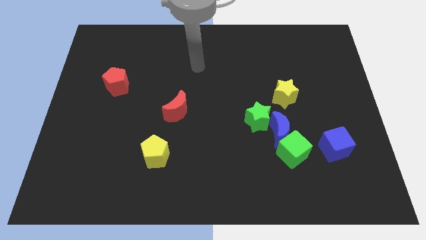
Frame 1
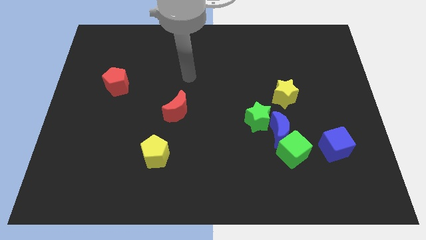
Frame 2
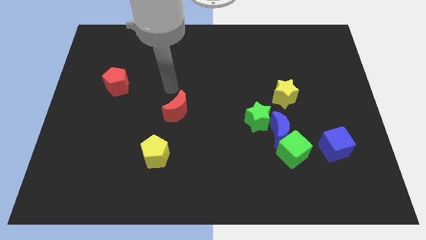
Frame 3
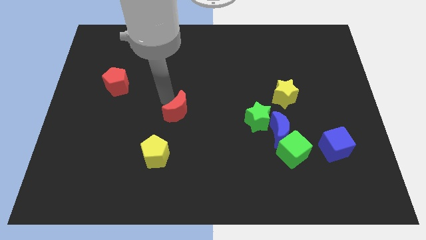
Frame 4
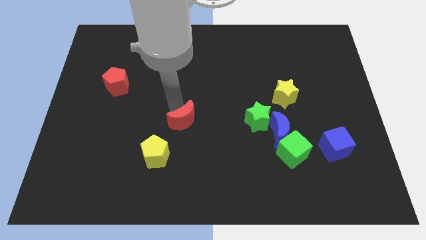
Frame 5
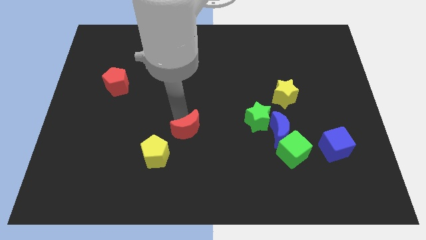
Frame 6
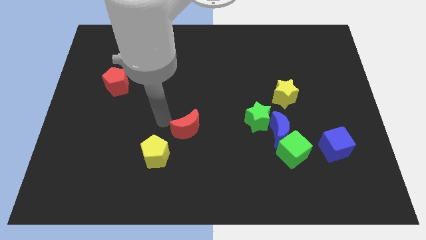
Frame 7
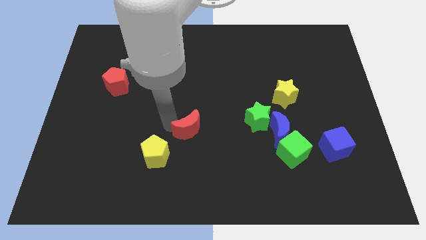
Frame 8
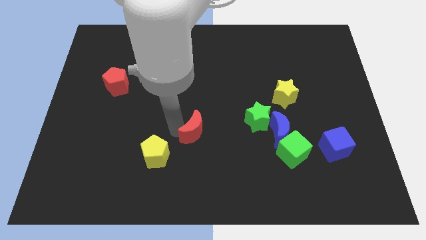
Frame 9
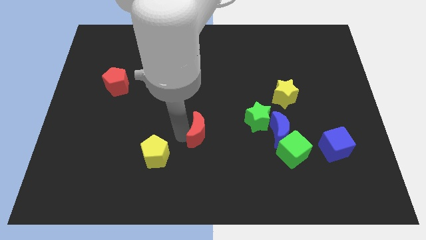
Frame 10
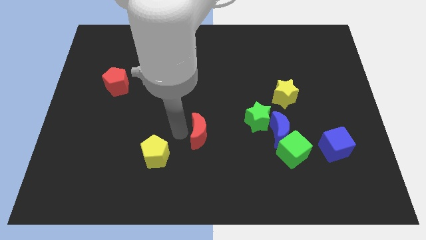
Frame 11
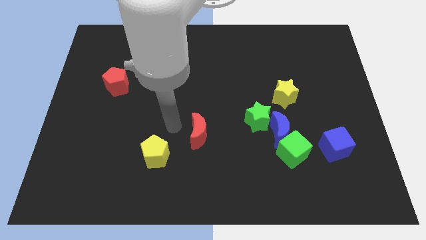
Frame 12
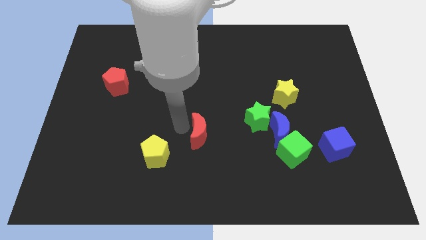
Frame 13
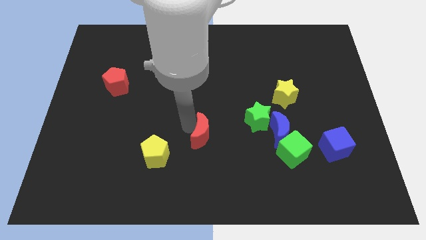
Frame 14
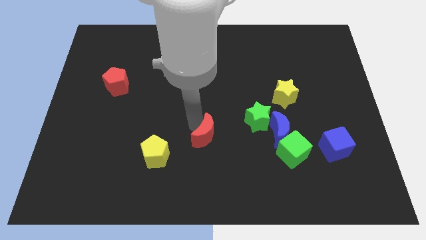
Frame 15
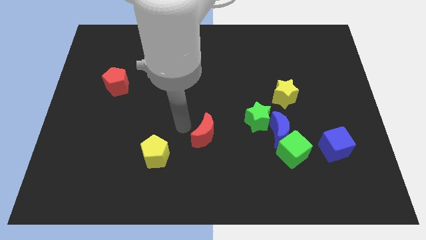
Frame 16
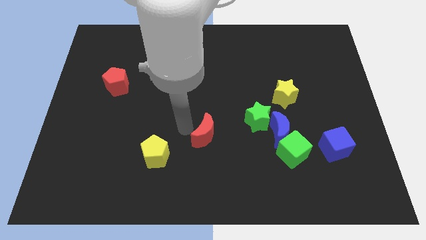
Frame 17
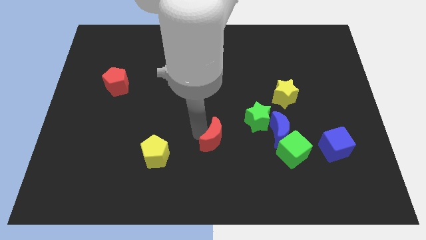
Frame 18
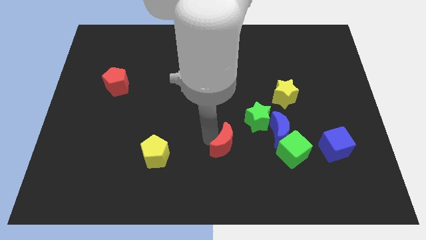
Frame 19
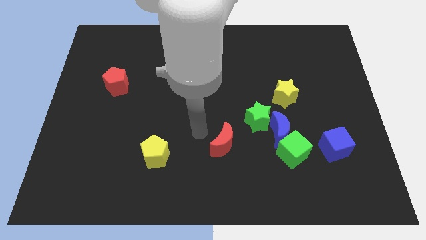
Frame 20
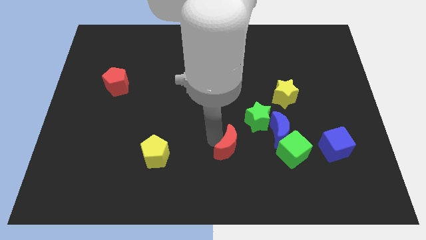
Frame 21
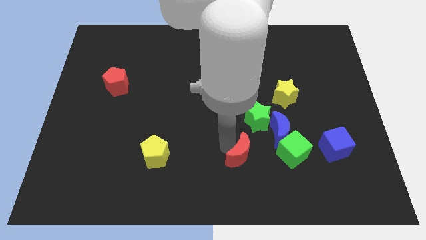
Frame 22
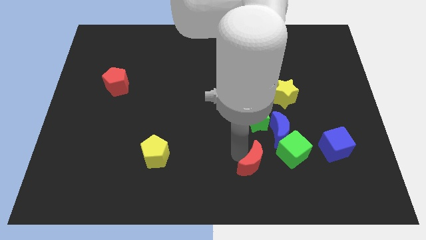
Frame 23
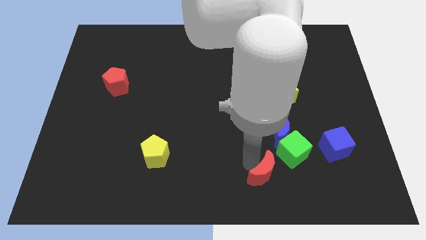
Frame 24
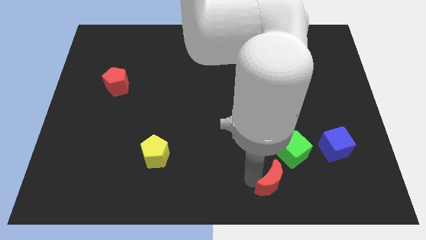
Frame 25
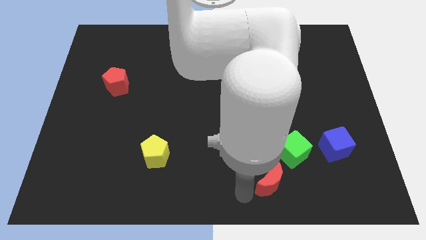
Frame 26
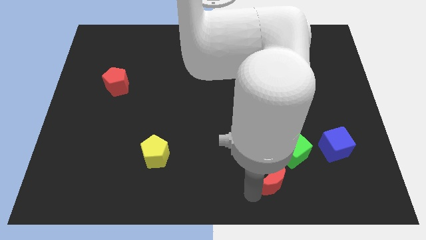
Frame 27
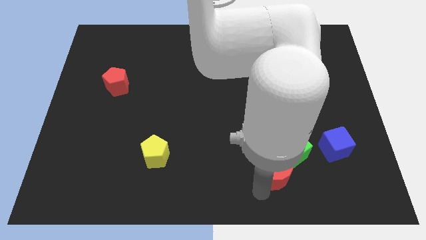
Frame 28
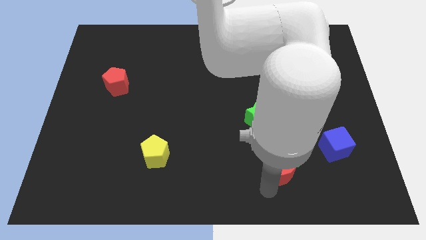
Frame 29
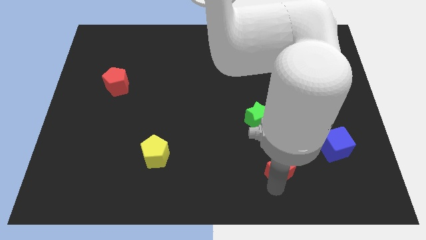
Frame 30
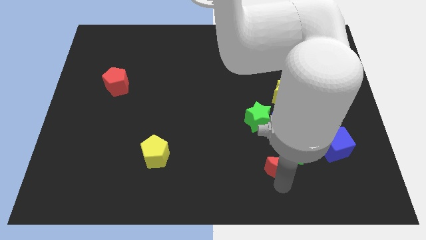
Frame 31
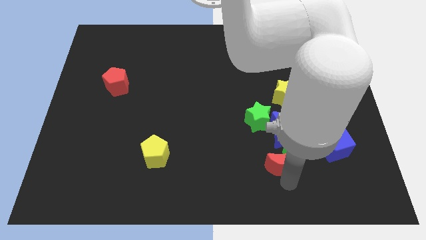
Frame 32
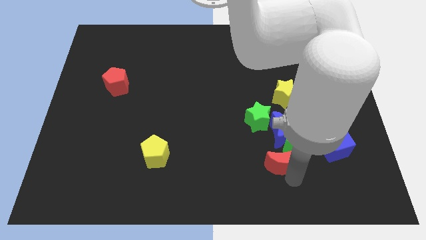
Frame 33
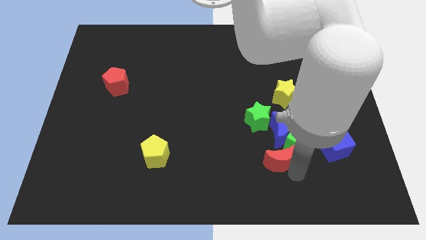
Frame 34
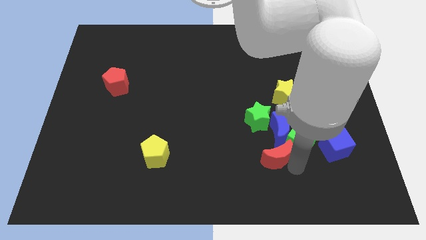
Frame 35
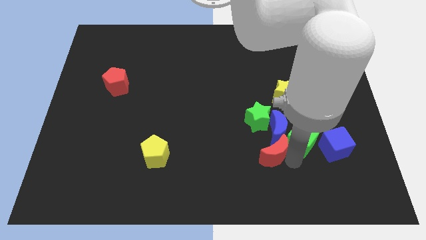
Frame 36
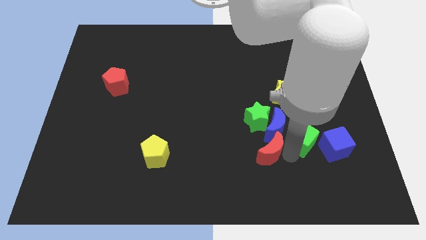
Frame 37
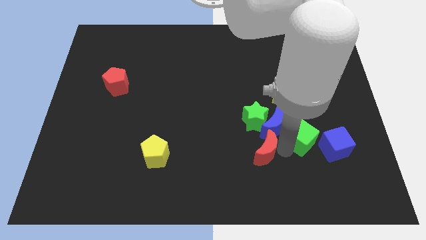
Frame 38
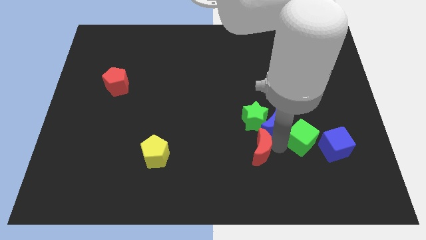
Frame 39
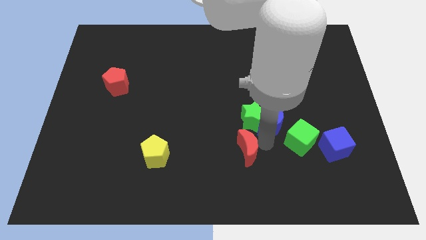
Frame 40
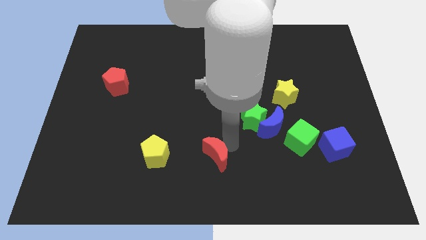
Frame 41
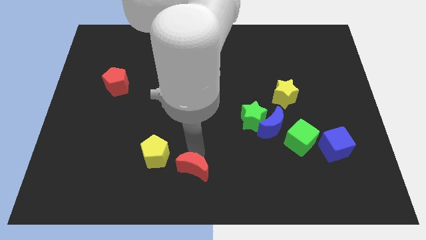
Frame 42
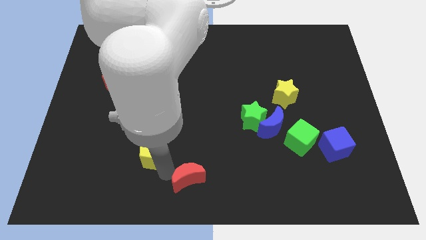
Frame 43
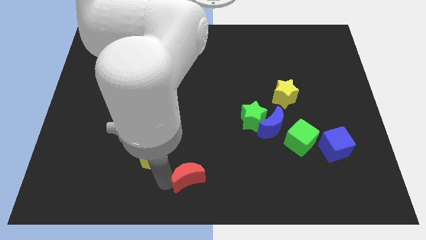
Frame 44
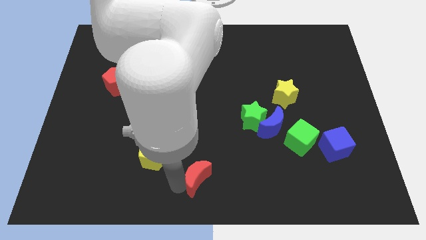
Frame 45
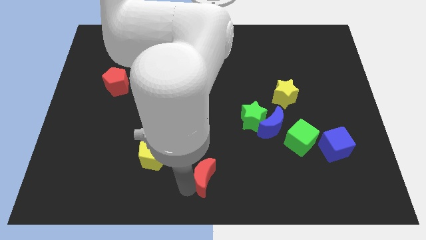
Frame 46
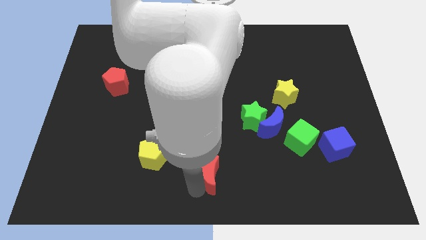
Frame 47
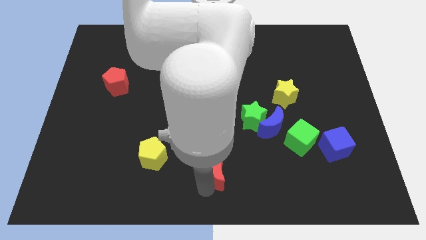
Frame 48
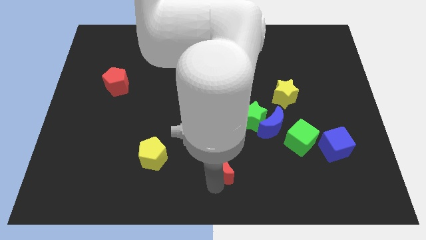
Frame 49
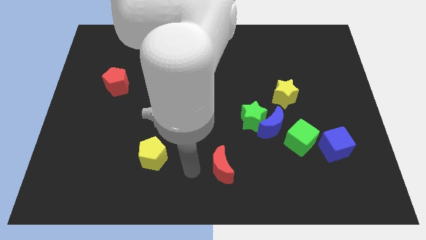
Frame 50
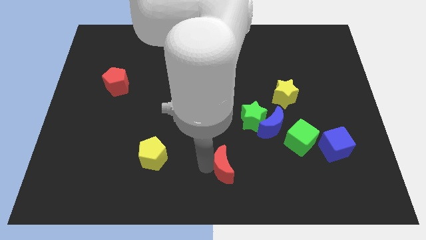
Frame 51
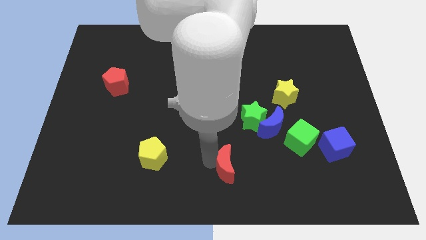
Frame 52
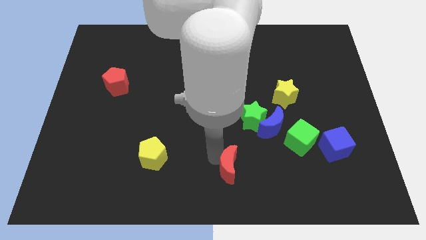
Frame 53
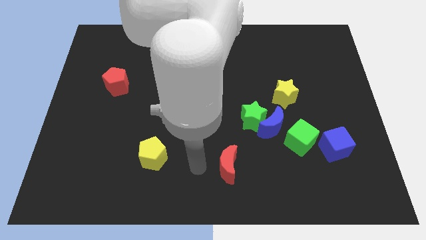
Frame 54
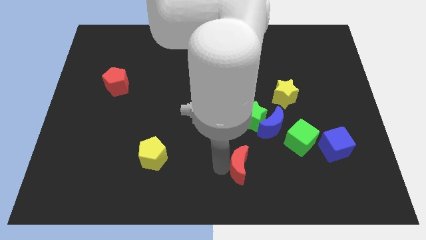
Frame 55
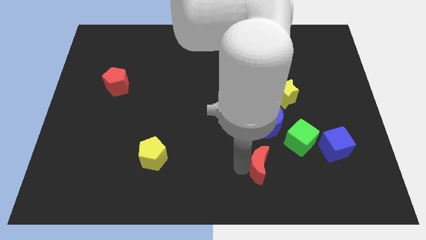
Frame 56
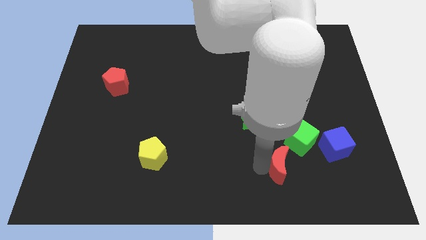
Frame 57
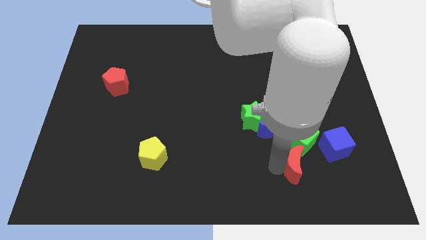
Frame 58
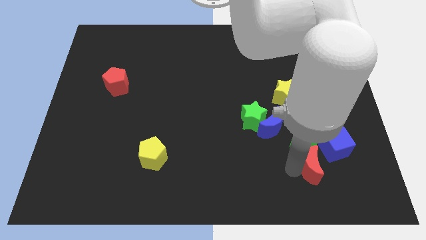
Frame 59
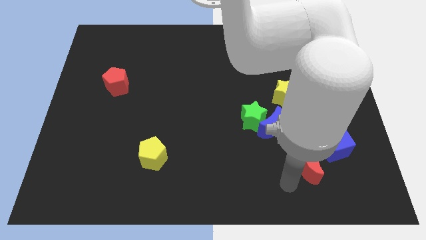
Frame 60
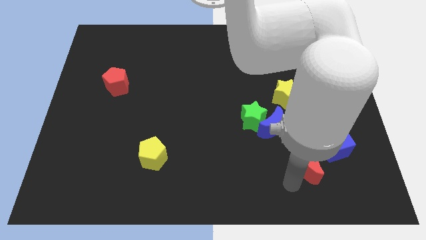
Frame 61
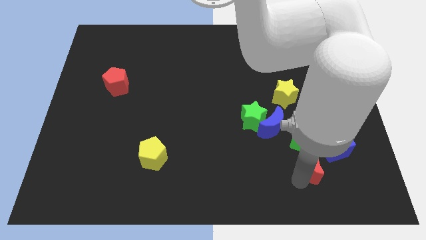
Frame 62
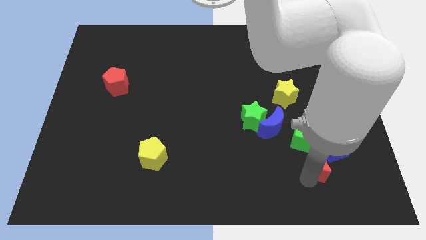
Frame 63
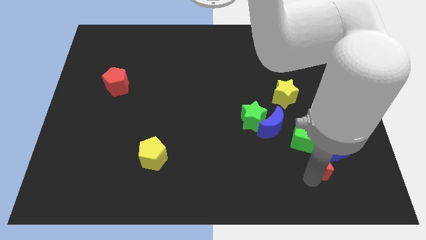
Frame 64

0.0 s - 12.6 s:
slide the red moon close to the blue cube
